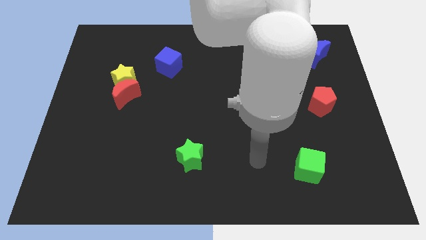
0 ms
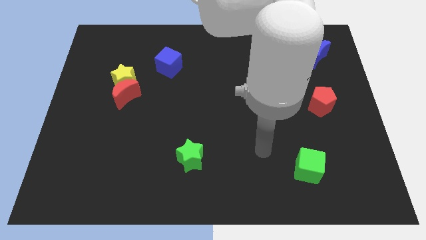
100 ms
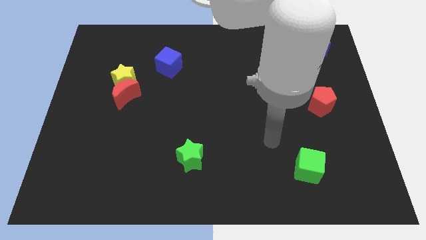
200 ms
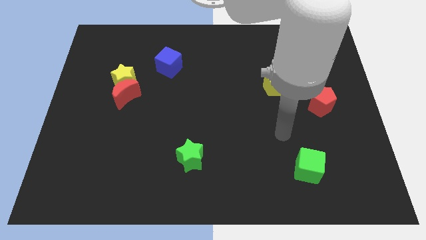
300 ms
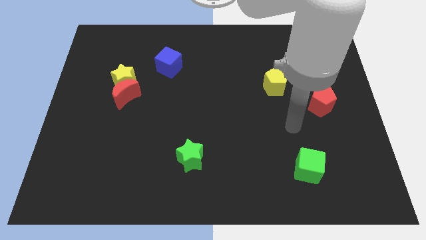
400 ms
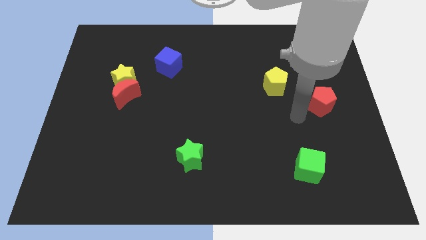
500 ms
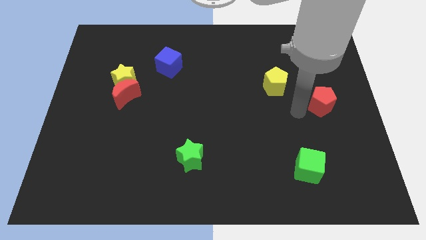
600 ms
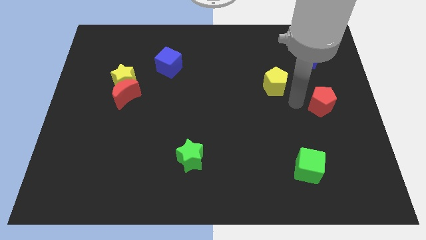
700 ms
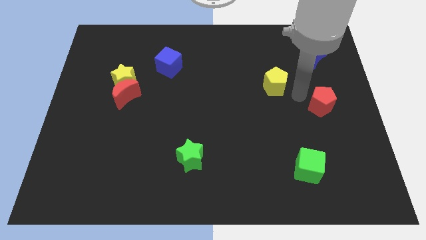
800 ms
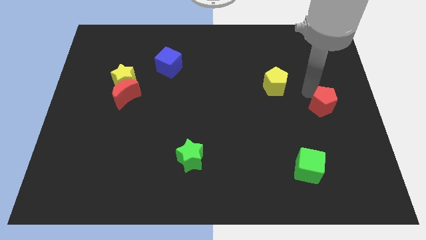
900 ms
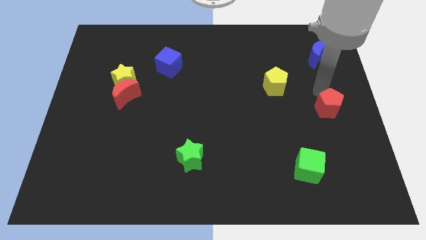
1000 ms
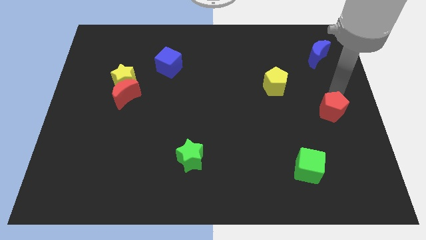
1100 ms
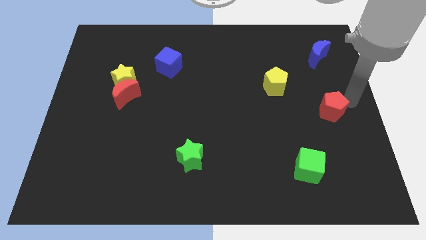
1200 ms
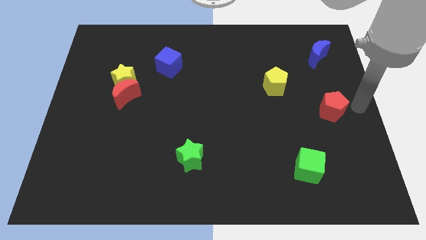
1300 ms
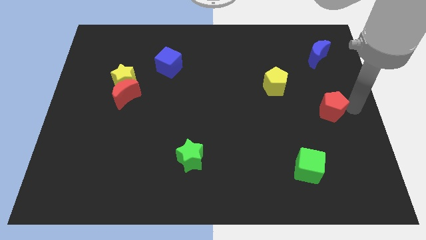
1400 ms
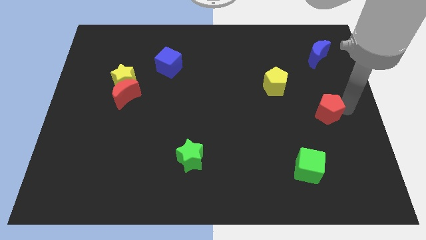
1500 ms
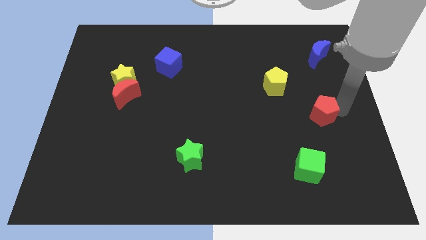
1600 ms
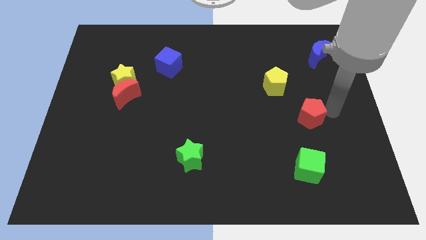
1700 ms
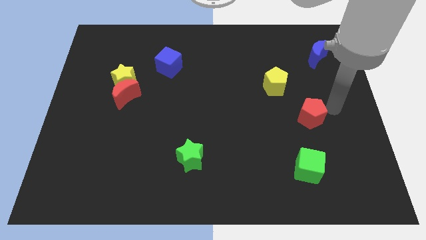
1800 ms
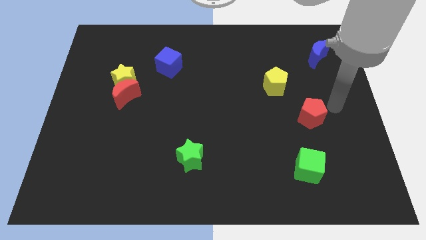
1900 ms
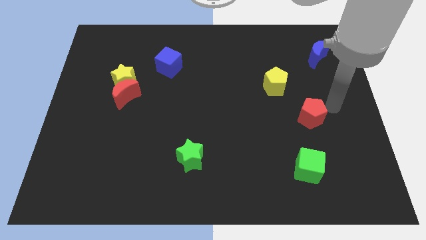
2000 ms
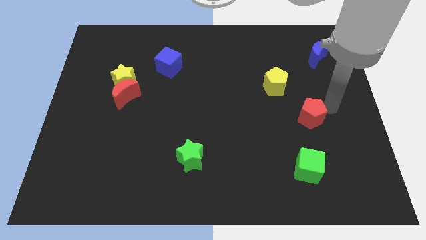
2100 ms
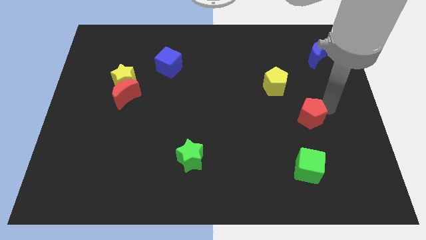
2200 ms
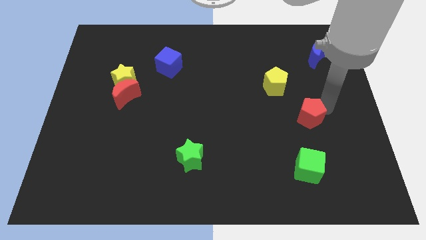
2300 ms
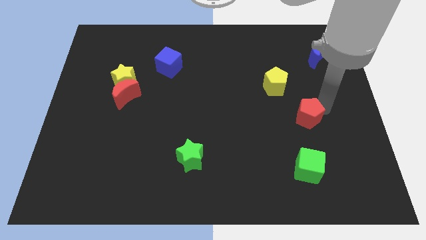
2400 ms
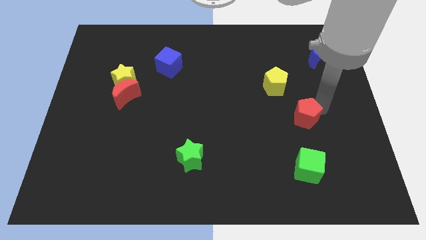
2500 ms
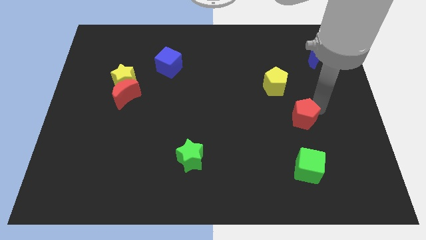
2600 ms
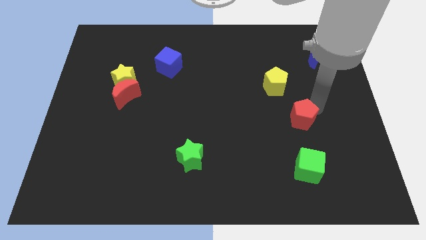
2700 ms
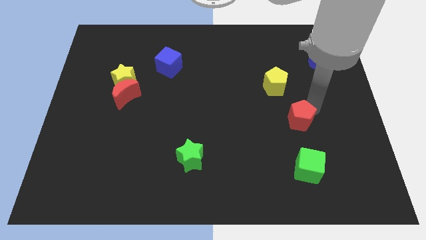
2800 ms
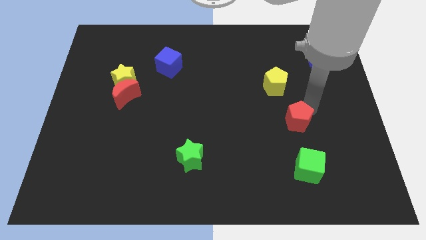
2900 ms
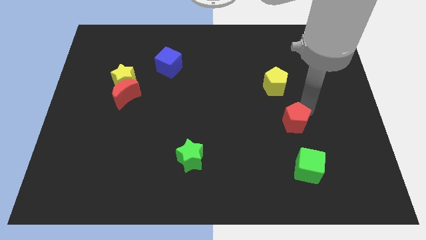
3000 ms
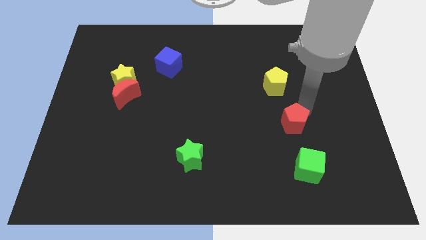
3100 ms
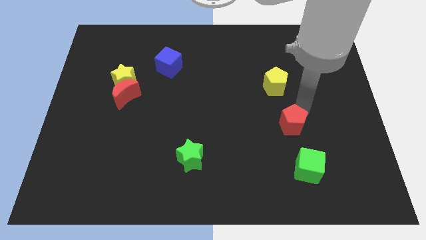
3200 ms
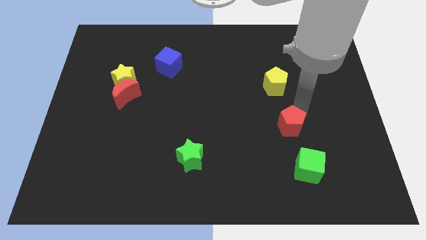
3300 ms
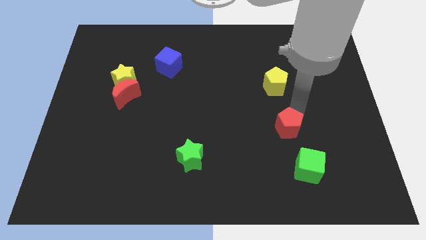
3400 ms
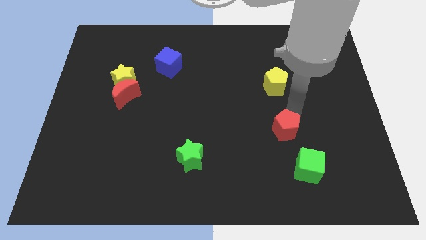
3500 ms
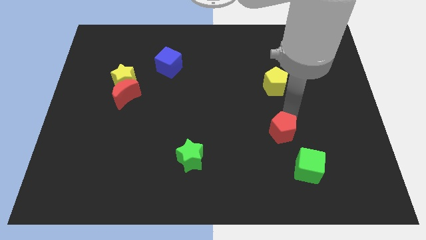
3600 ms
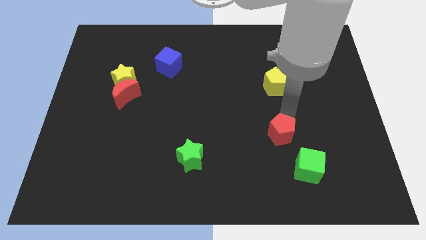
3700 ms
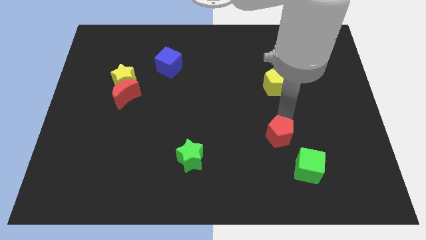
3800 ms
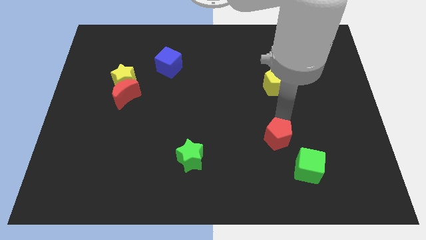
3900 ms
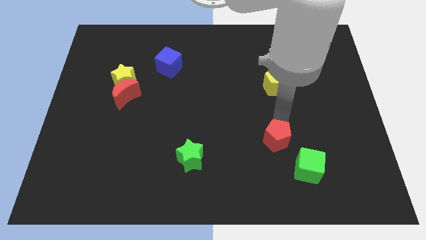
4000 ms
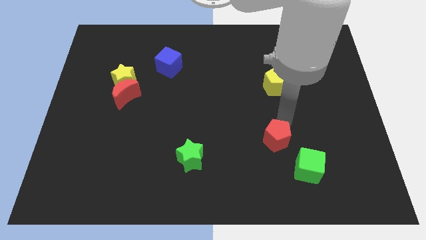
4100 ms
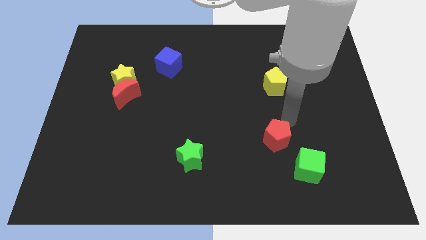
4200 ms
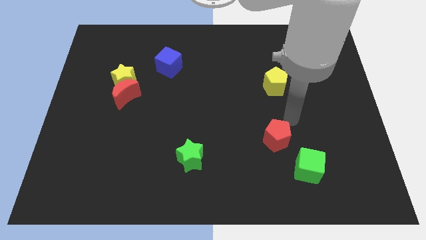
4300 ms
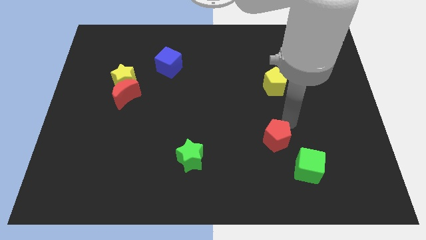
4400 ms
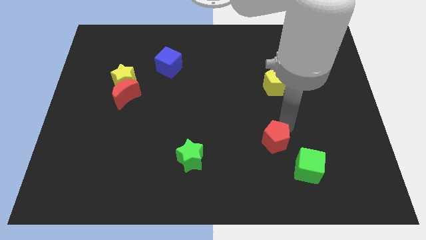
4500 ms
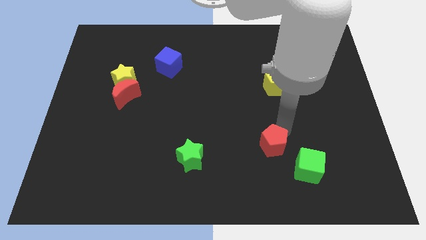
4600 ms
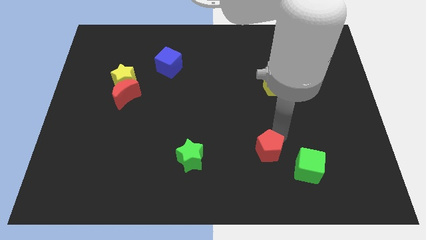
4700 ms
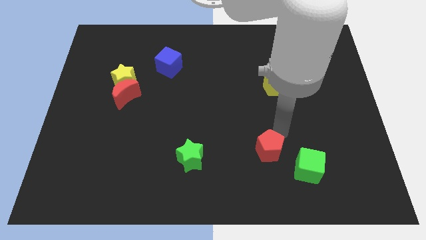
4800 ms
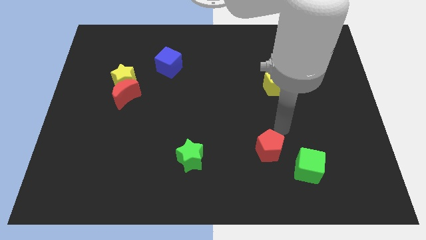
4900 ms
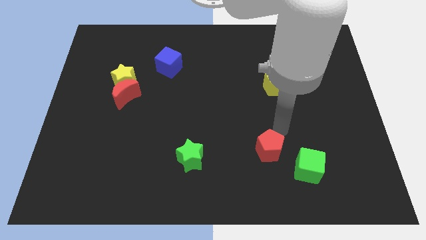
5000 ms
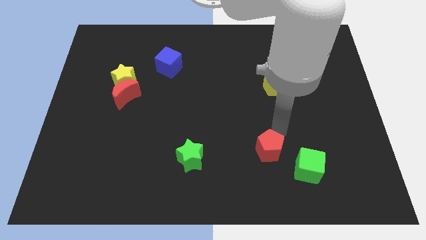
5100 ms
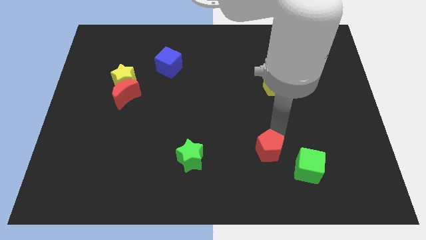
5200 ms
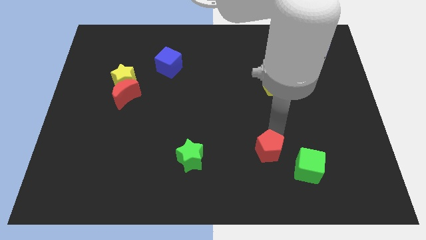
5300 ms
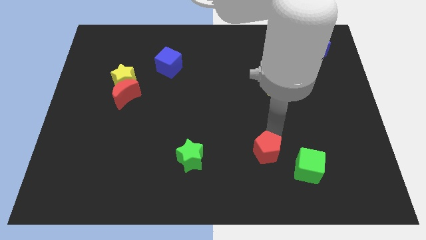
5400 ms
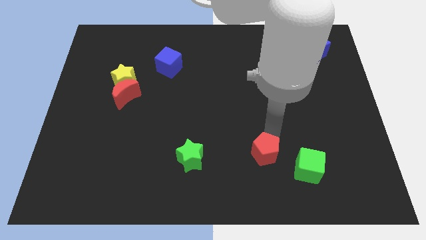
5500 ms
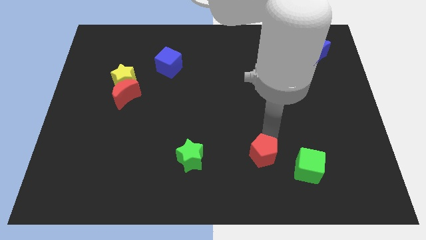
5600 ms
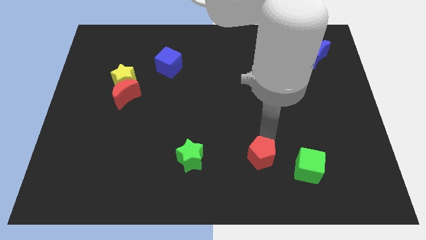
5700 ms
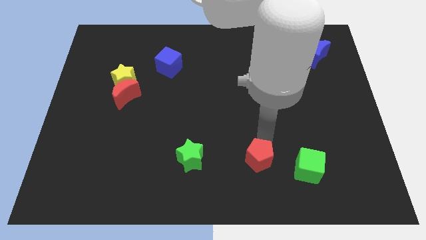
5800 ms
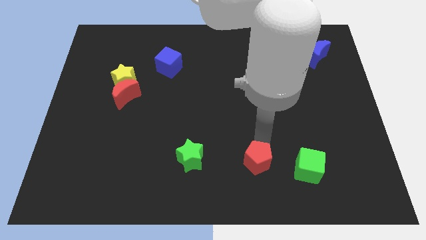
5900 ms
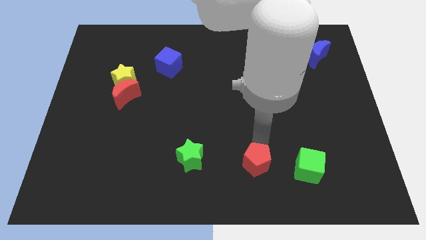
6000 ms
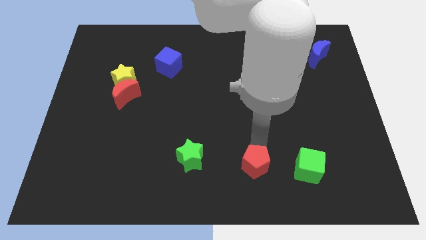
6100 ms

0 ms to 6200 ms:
put the red pentagon to the bottom side

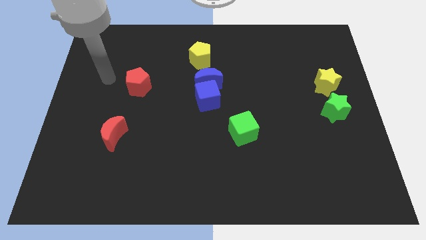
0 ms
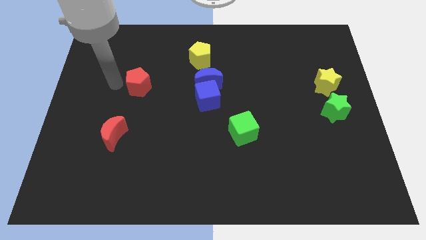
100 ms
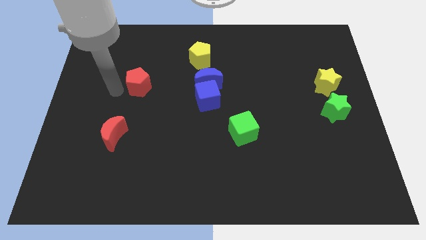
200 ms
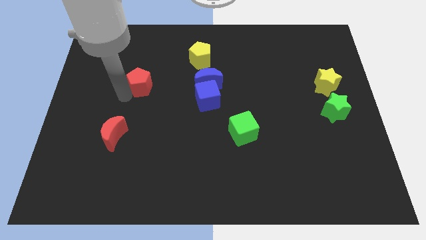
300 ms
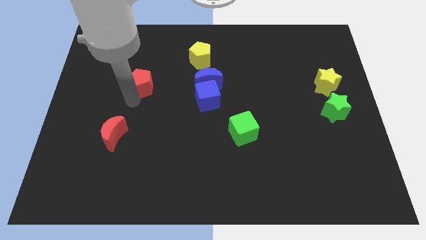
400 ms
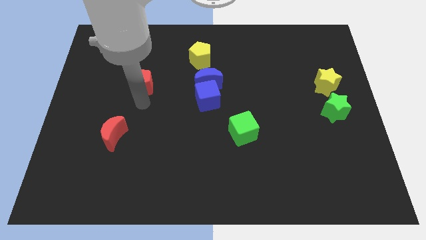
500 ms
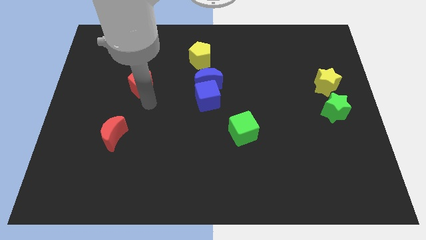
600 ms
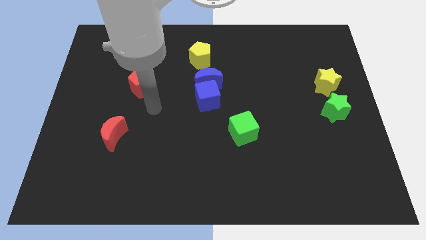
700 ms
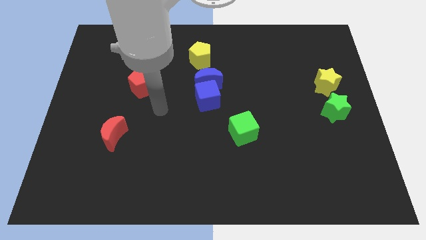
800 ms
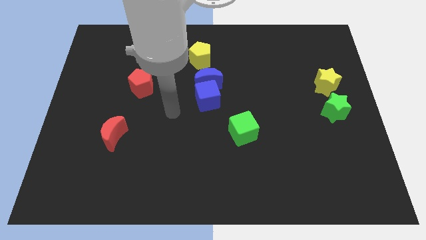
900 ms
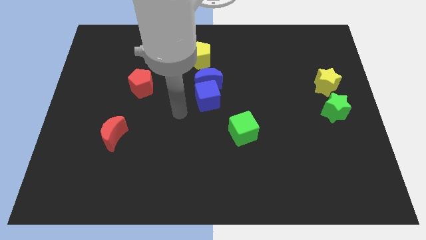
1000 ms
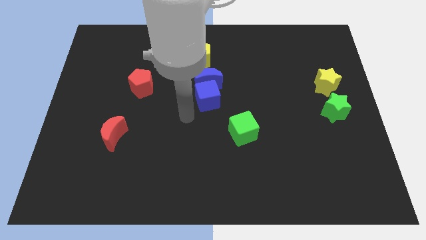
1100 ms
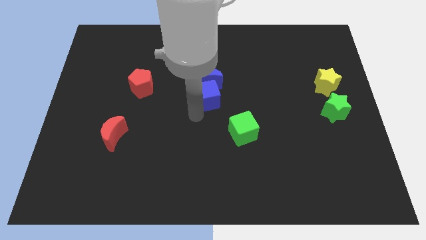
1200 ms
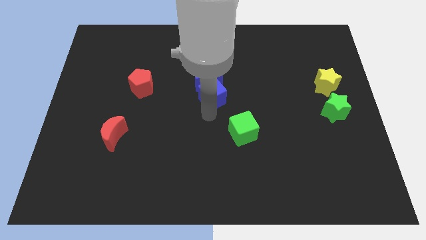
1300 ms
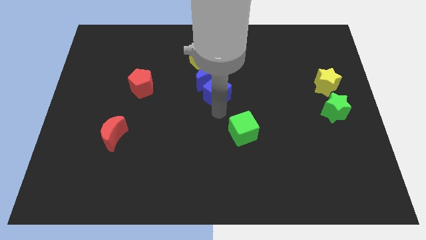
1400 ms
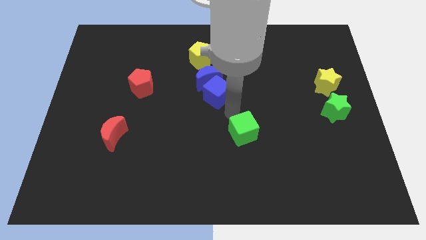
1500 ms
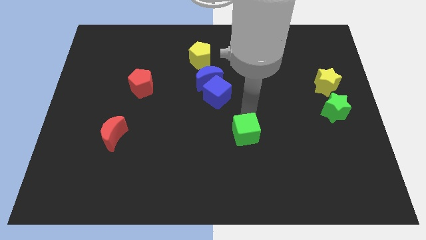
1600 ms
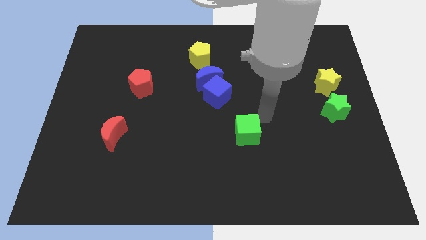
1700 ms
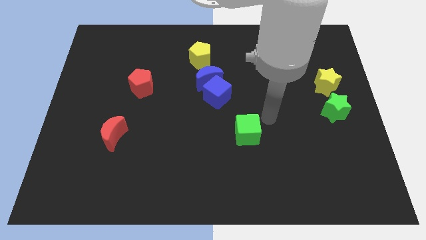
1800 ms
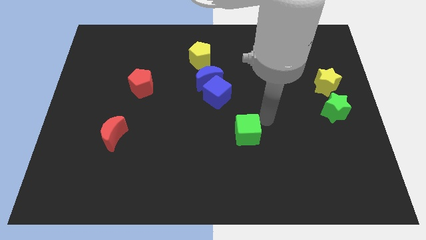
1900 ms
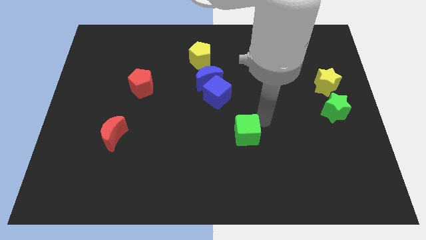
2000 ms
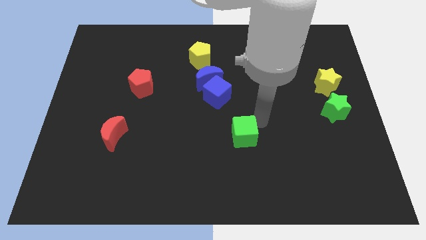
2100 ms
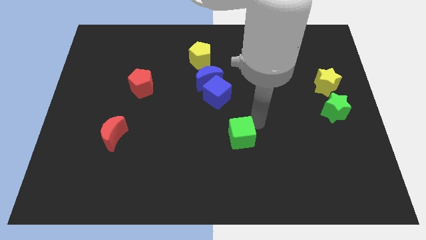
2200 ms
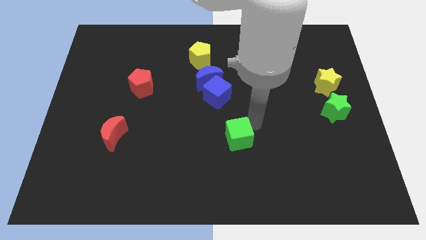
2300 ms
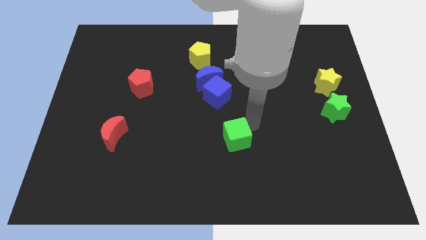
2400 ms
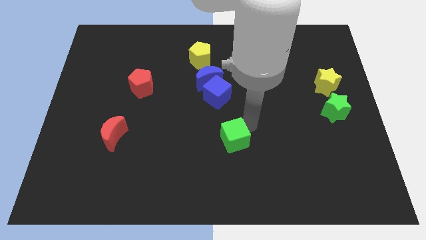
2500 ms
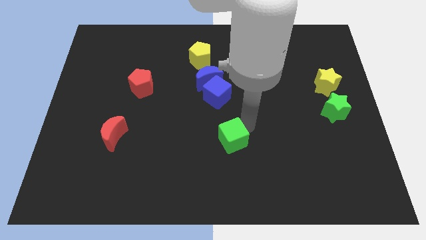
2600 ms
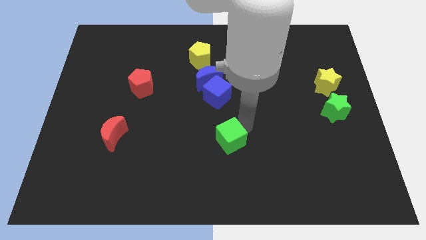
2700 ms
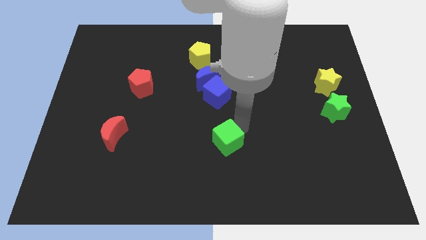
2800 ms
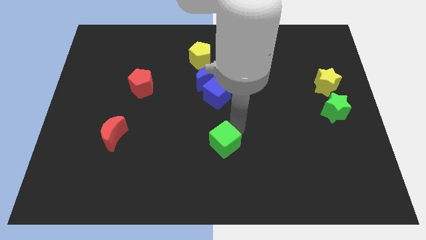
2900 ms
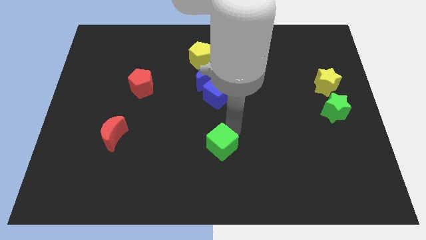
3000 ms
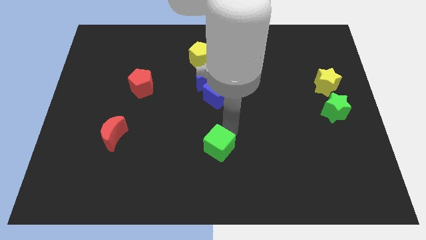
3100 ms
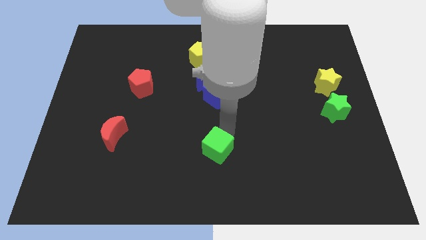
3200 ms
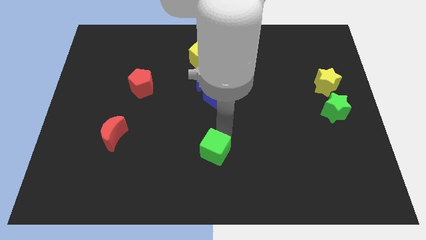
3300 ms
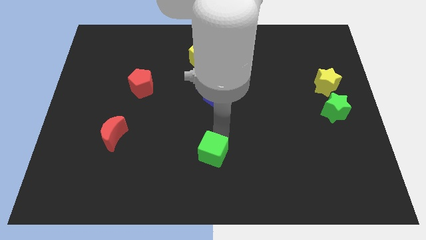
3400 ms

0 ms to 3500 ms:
put the green cube to the bottom side
